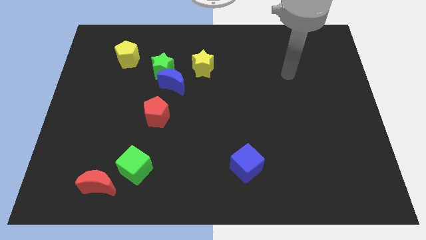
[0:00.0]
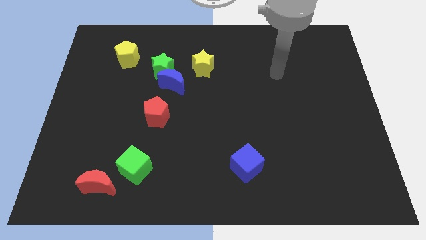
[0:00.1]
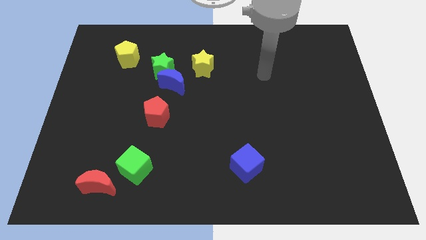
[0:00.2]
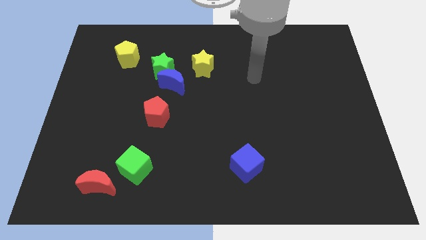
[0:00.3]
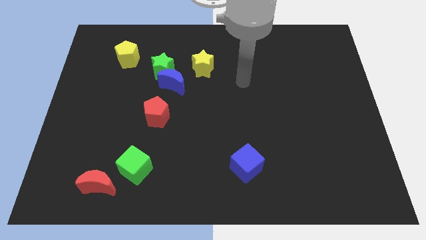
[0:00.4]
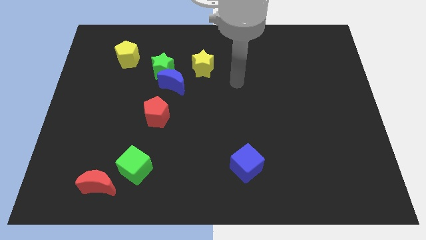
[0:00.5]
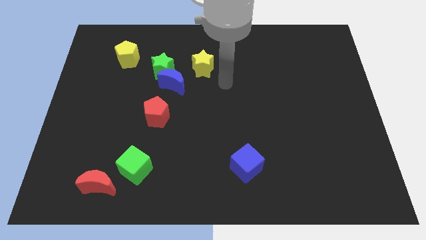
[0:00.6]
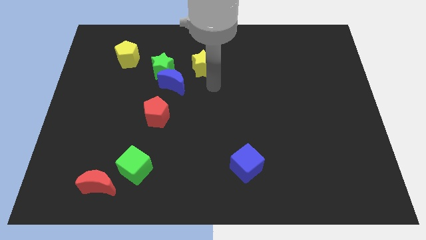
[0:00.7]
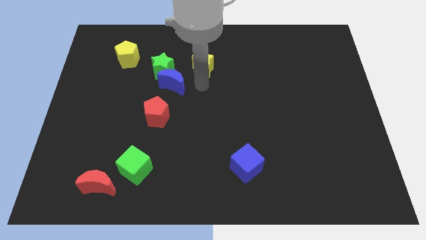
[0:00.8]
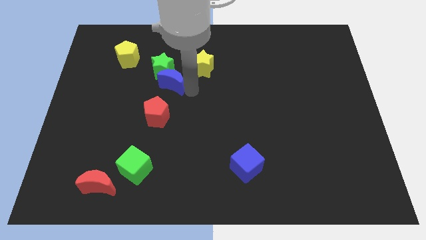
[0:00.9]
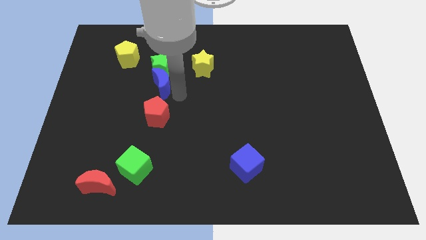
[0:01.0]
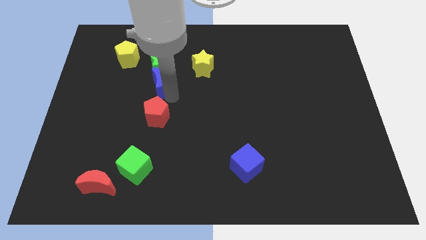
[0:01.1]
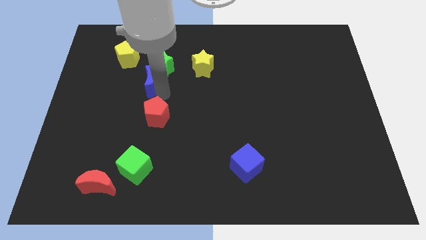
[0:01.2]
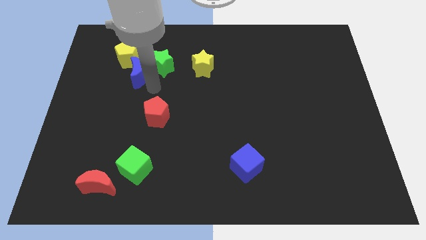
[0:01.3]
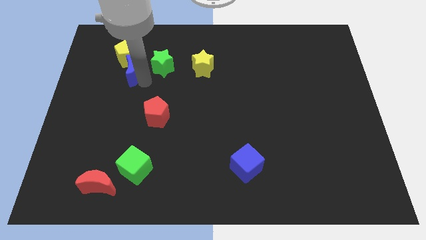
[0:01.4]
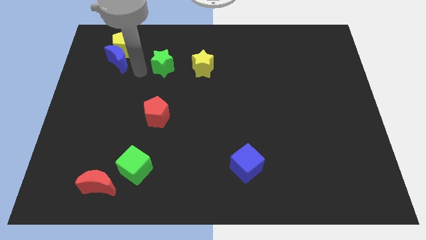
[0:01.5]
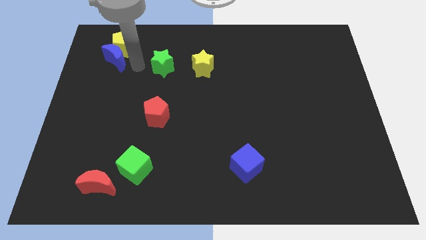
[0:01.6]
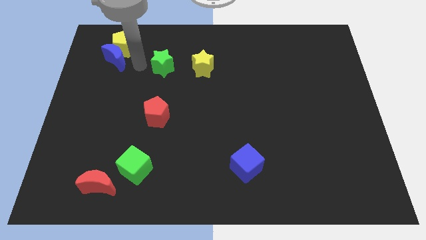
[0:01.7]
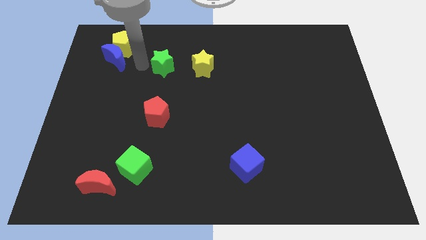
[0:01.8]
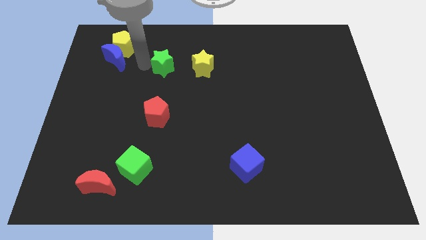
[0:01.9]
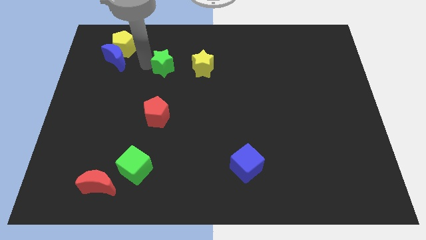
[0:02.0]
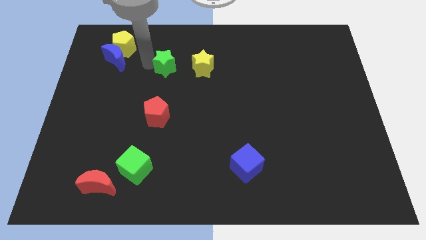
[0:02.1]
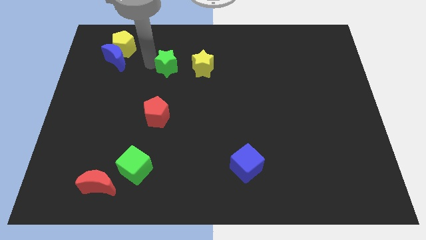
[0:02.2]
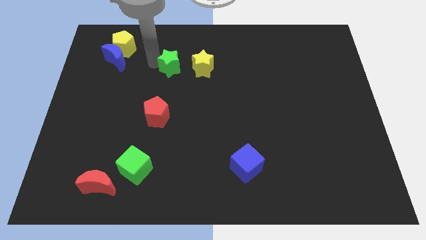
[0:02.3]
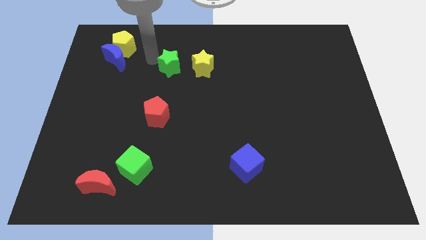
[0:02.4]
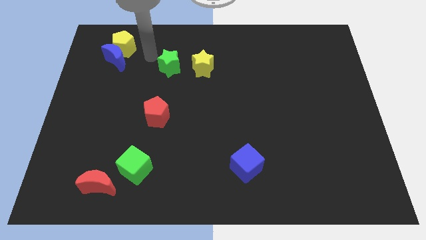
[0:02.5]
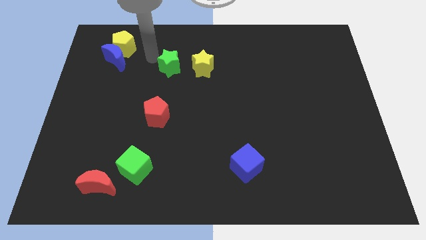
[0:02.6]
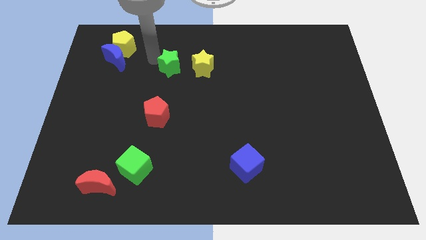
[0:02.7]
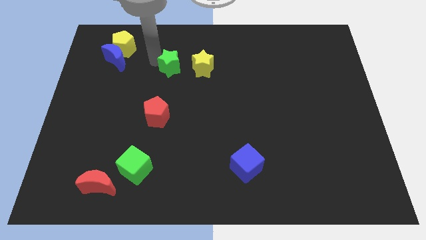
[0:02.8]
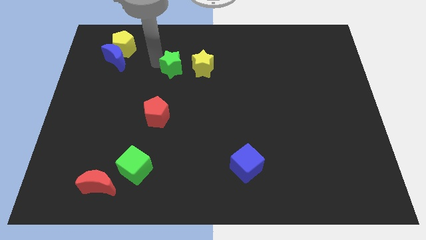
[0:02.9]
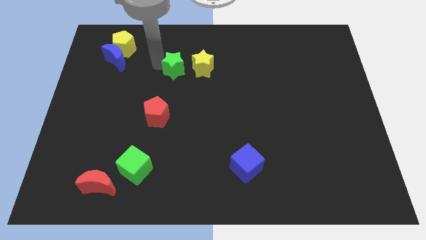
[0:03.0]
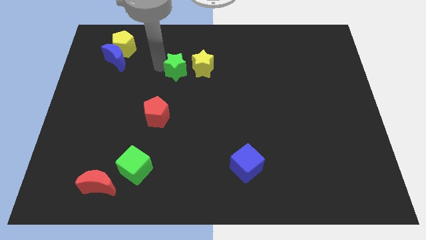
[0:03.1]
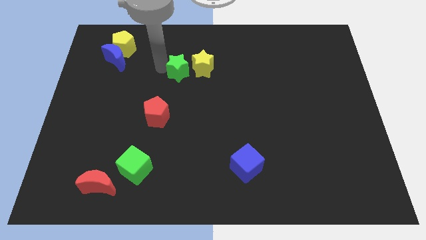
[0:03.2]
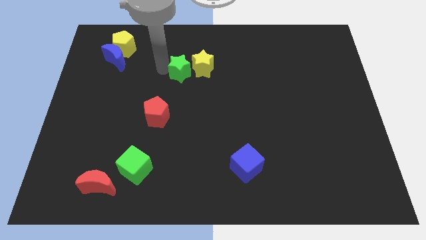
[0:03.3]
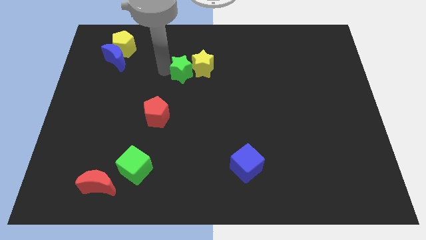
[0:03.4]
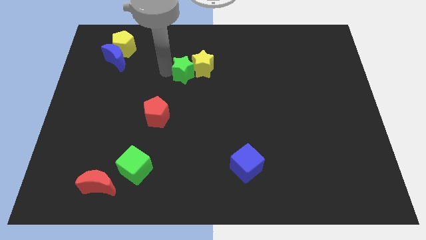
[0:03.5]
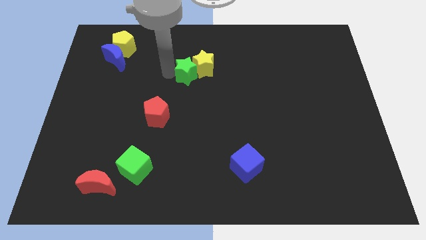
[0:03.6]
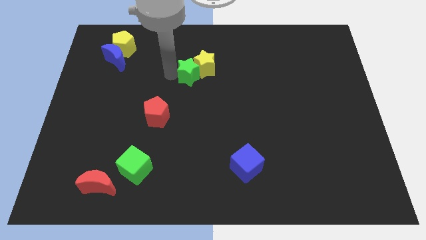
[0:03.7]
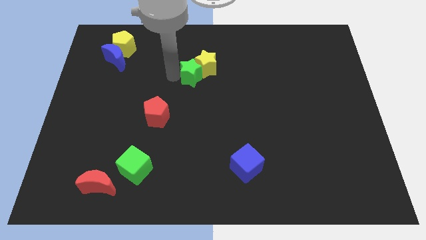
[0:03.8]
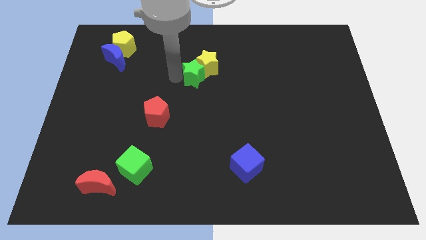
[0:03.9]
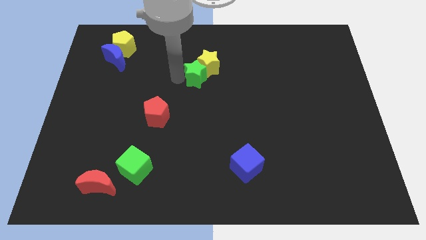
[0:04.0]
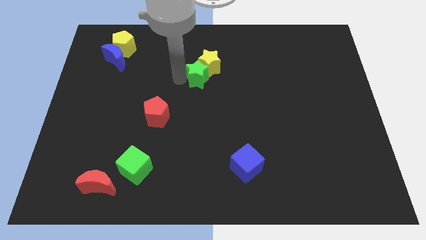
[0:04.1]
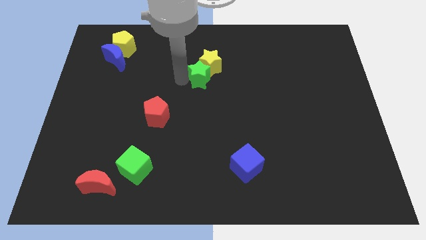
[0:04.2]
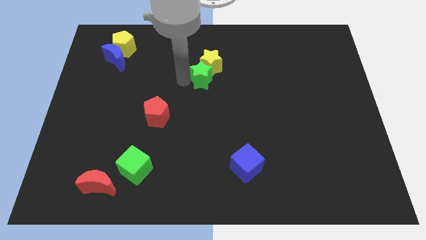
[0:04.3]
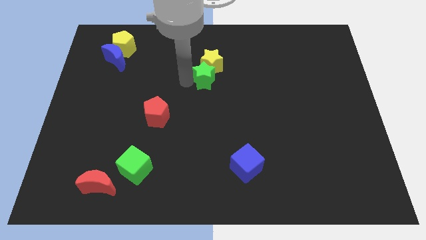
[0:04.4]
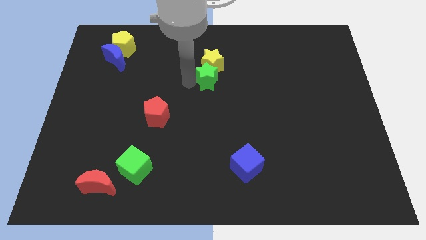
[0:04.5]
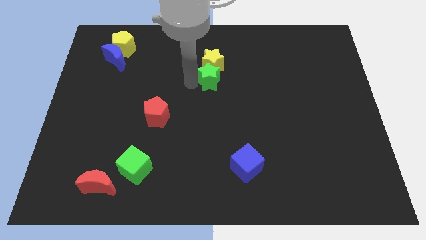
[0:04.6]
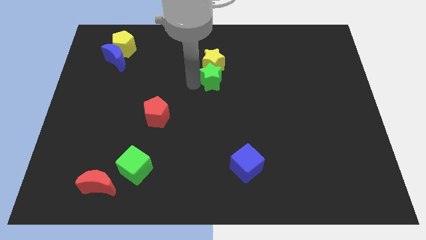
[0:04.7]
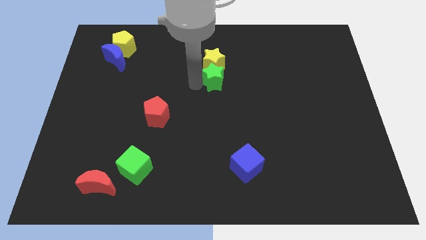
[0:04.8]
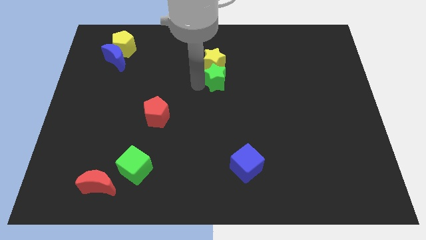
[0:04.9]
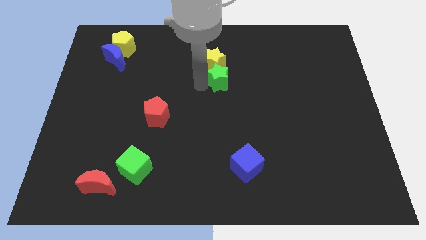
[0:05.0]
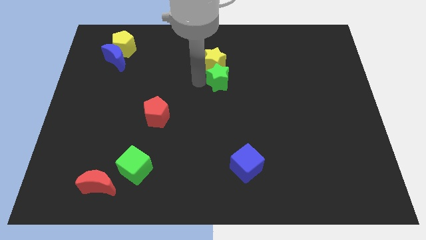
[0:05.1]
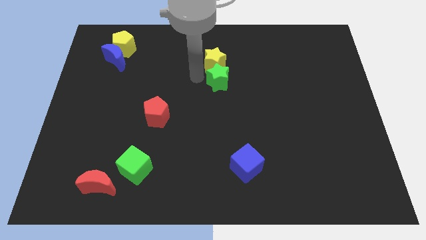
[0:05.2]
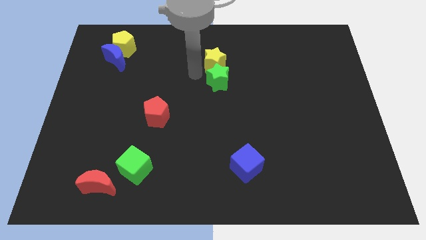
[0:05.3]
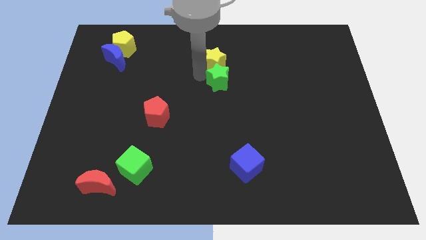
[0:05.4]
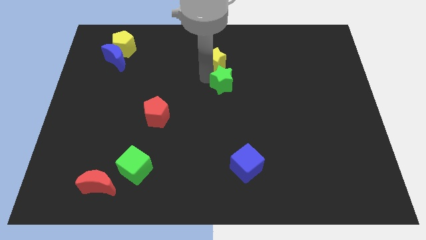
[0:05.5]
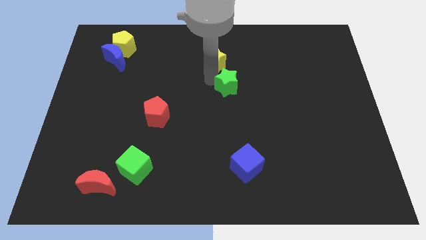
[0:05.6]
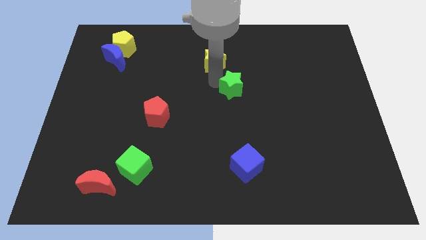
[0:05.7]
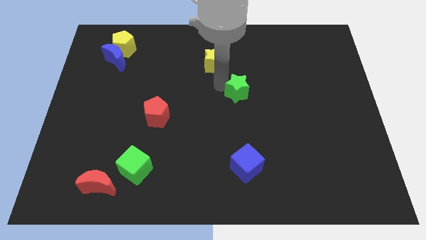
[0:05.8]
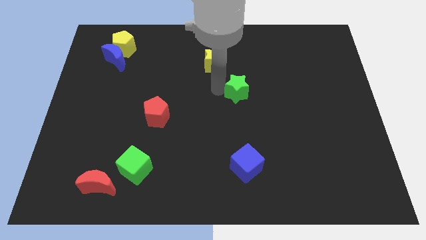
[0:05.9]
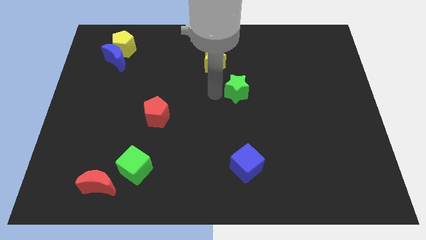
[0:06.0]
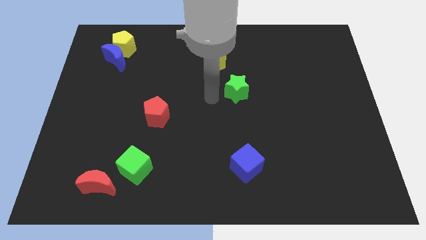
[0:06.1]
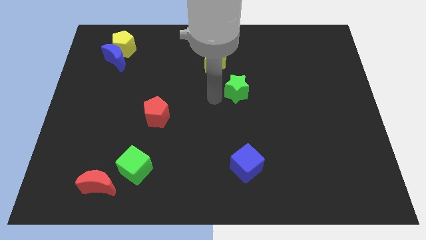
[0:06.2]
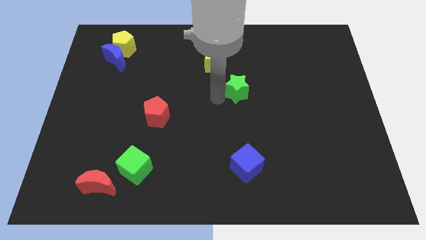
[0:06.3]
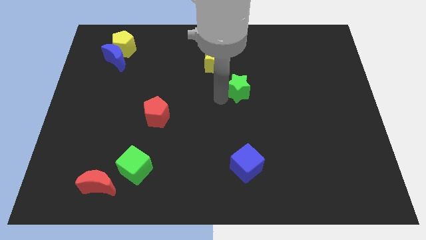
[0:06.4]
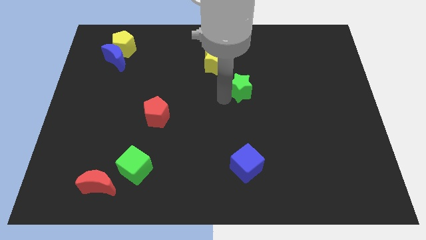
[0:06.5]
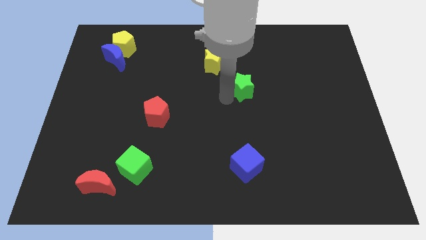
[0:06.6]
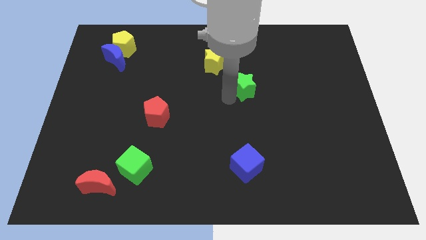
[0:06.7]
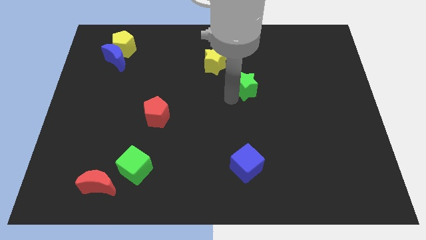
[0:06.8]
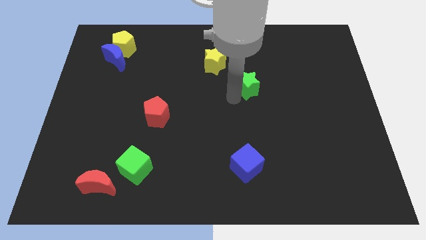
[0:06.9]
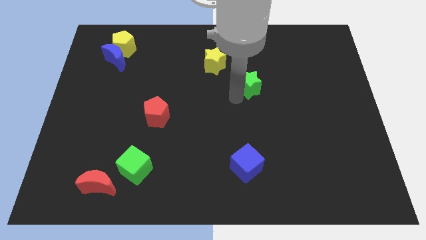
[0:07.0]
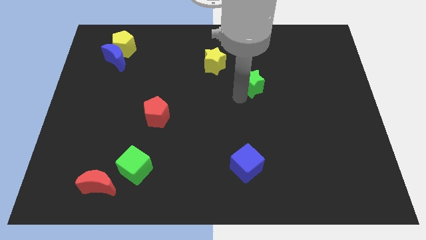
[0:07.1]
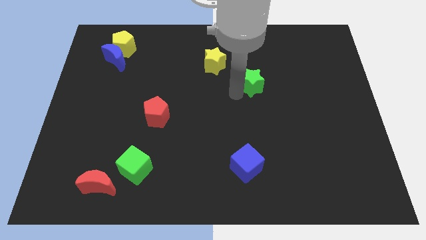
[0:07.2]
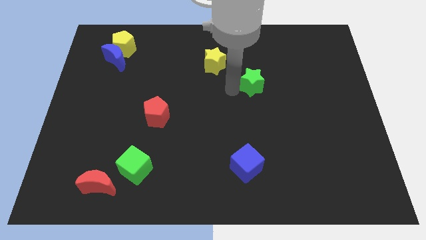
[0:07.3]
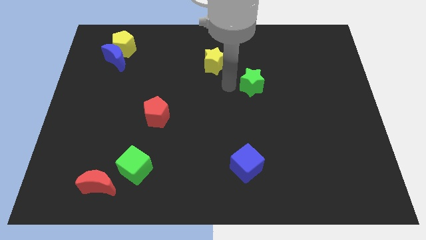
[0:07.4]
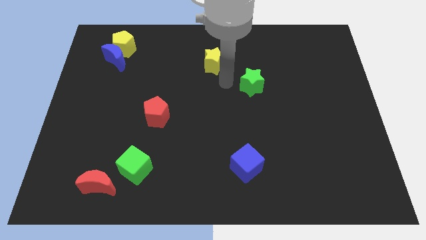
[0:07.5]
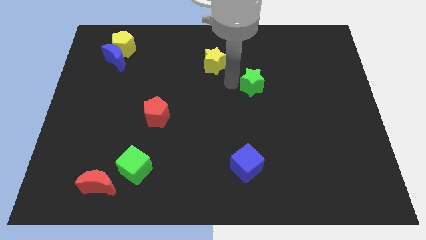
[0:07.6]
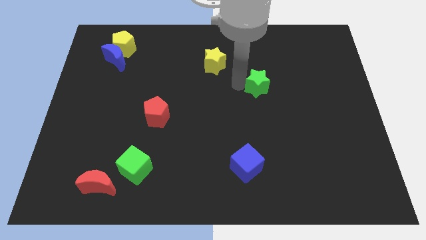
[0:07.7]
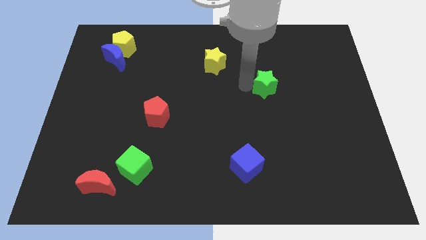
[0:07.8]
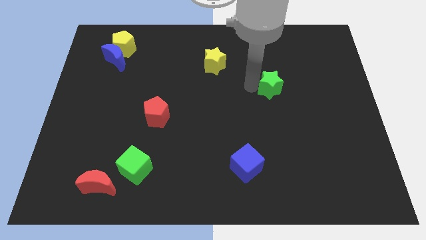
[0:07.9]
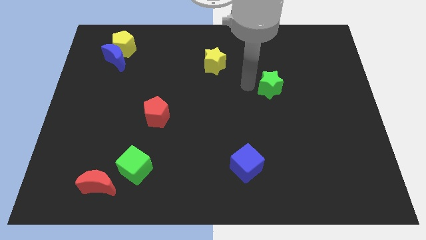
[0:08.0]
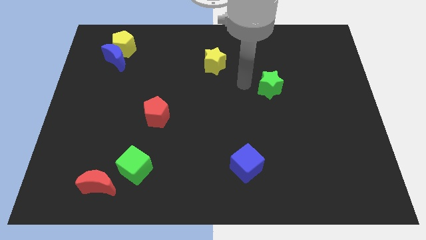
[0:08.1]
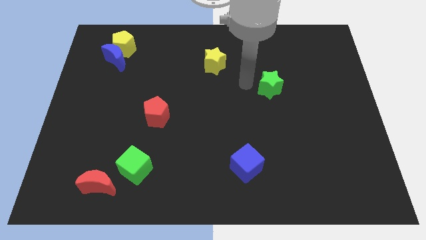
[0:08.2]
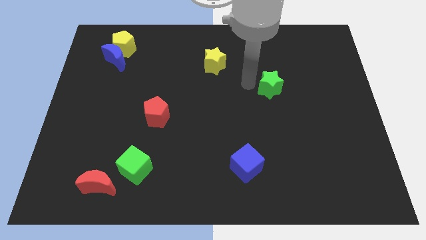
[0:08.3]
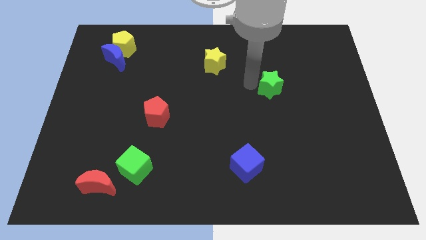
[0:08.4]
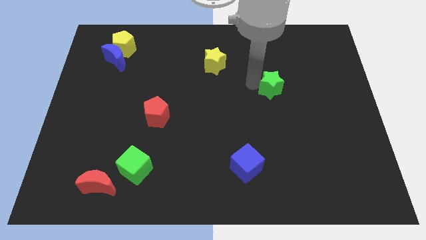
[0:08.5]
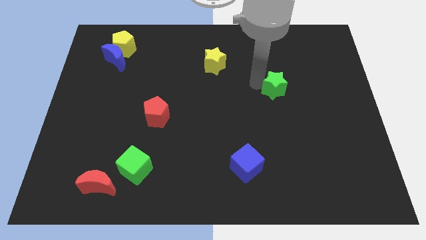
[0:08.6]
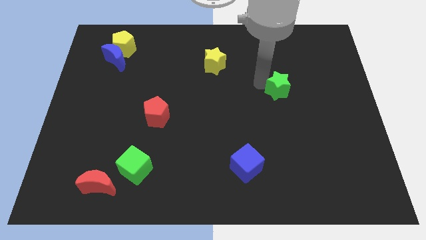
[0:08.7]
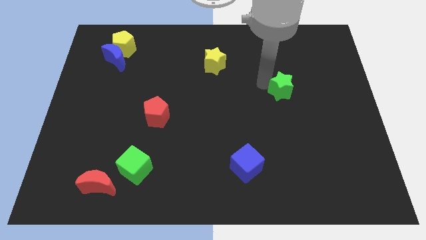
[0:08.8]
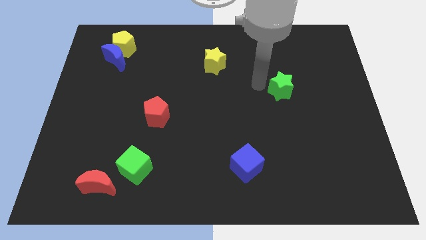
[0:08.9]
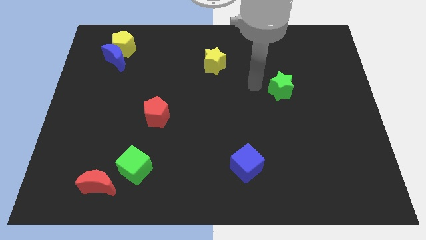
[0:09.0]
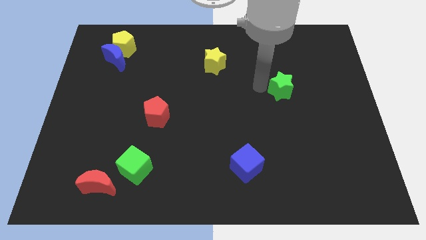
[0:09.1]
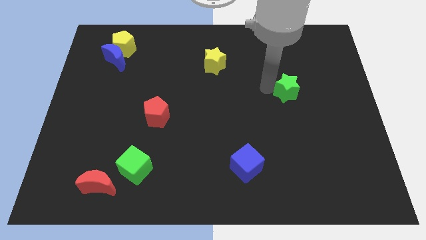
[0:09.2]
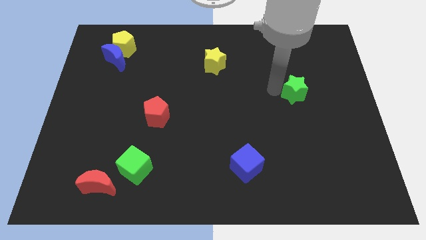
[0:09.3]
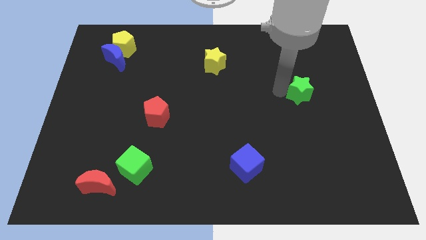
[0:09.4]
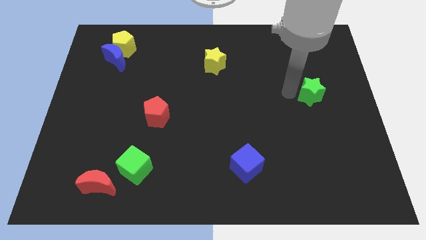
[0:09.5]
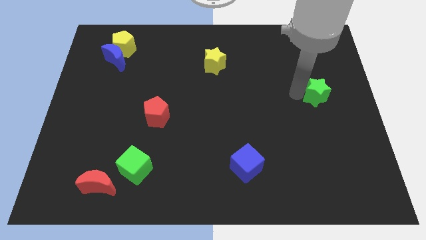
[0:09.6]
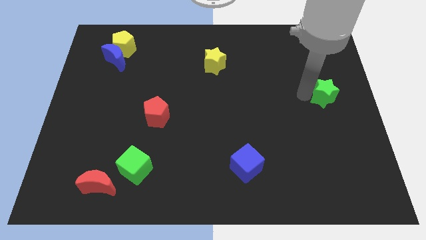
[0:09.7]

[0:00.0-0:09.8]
push the green star to the right side of the board
